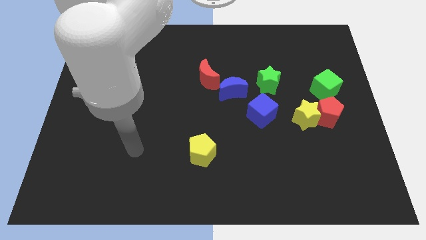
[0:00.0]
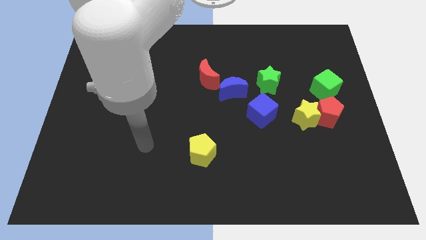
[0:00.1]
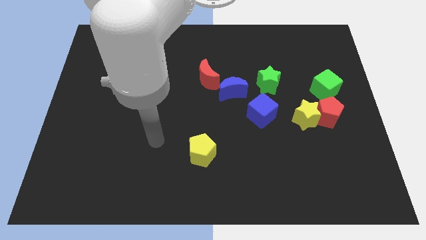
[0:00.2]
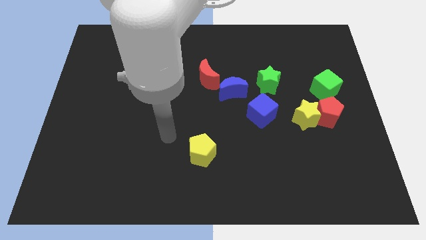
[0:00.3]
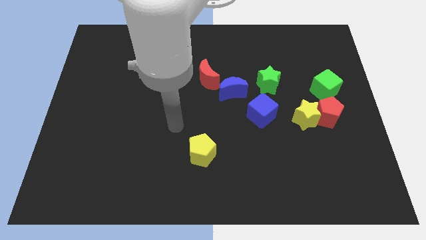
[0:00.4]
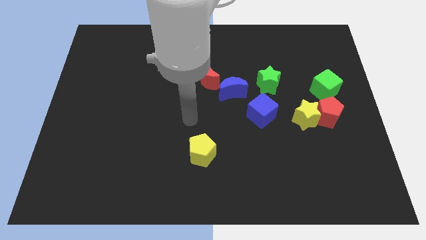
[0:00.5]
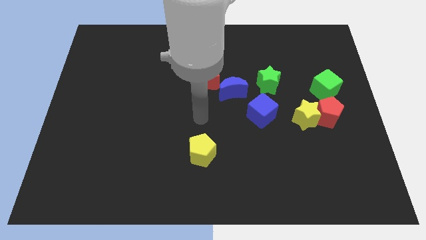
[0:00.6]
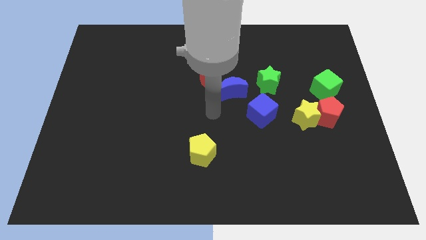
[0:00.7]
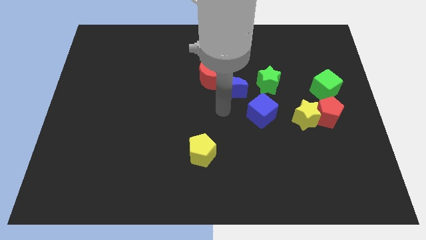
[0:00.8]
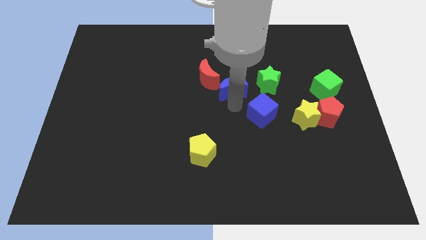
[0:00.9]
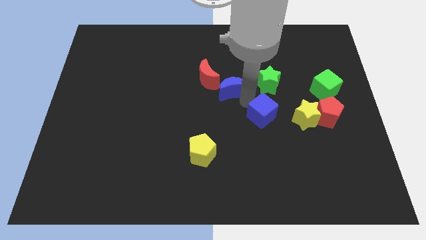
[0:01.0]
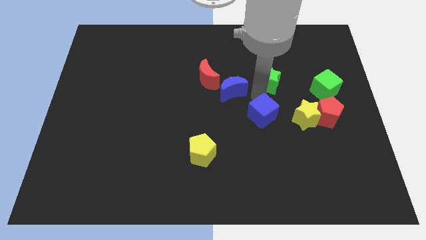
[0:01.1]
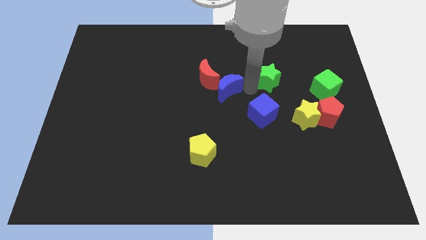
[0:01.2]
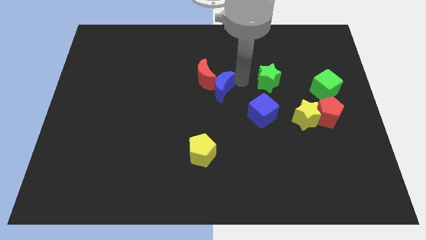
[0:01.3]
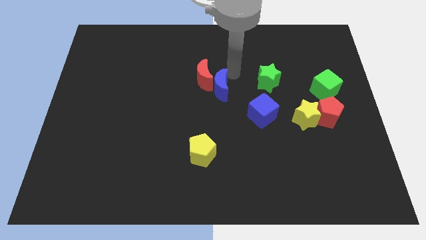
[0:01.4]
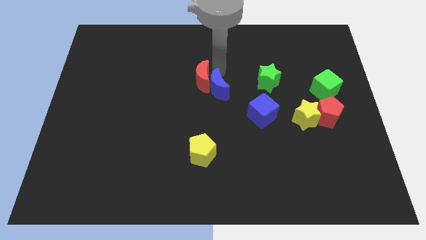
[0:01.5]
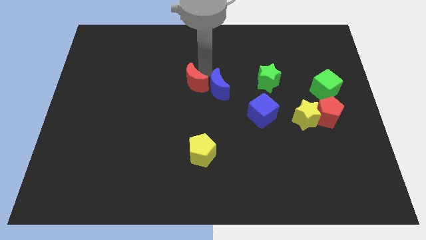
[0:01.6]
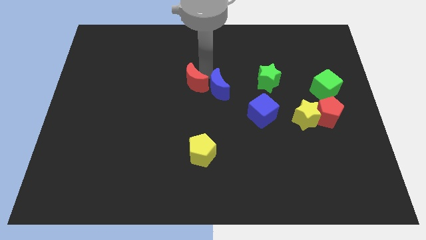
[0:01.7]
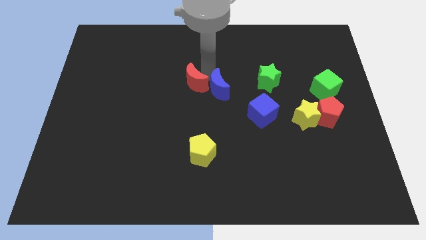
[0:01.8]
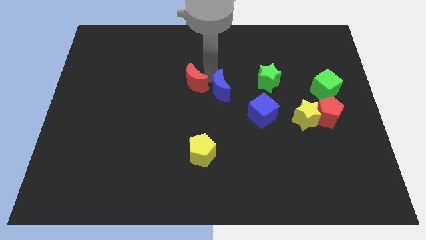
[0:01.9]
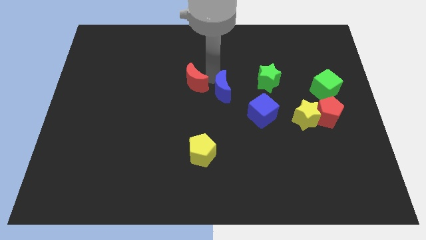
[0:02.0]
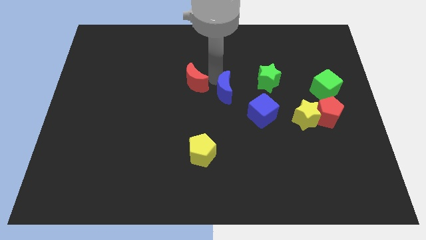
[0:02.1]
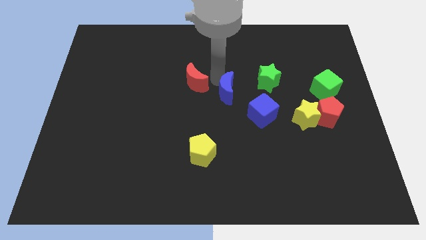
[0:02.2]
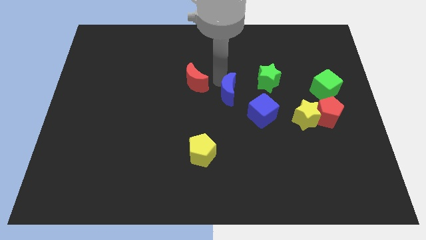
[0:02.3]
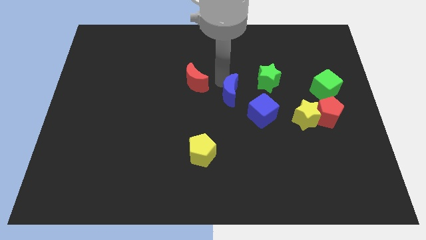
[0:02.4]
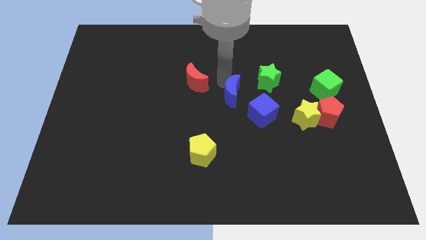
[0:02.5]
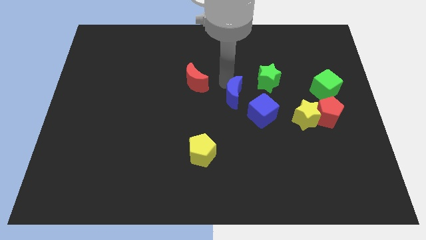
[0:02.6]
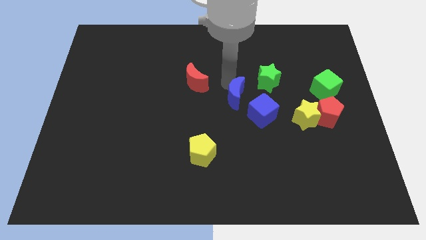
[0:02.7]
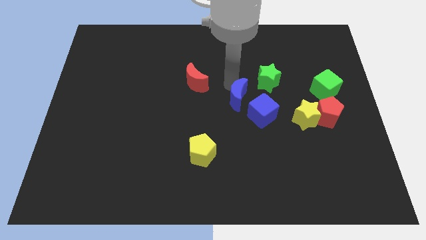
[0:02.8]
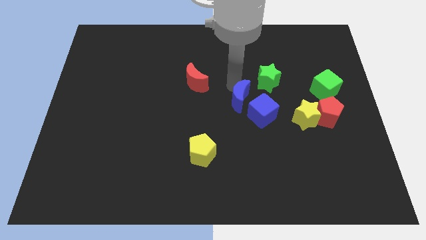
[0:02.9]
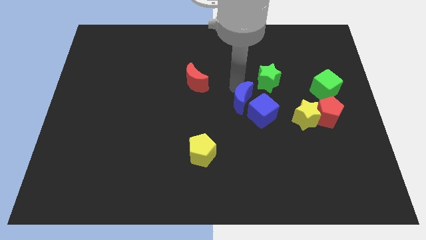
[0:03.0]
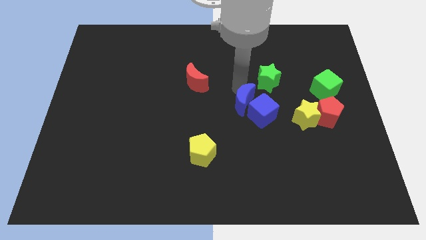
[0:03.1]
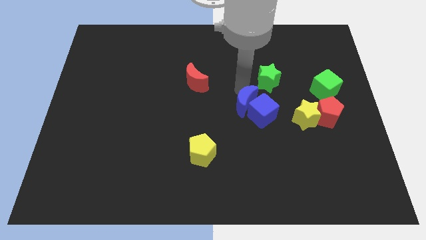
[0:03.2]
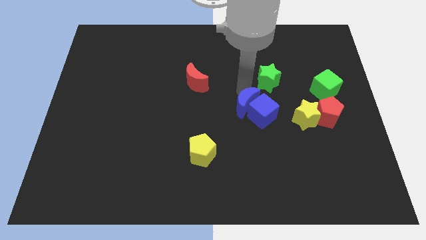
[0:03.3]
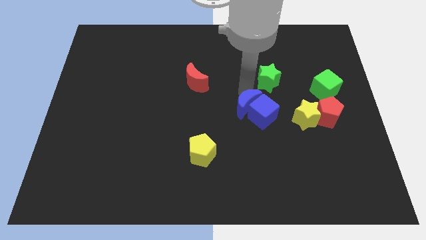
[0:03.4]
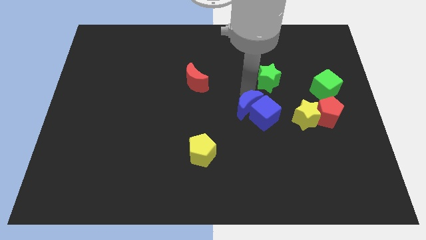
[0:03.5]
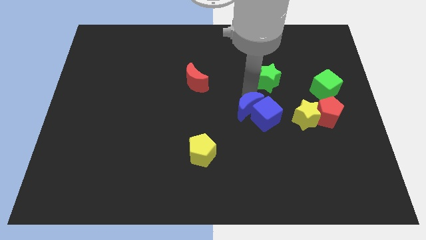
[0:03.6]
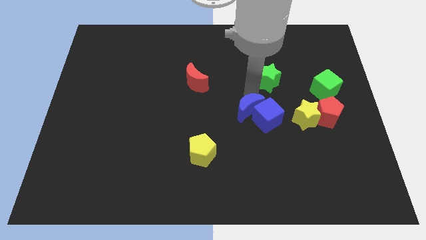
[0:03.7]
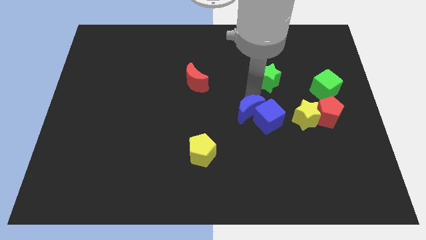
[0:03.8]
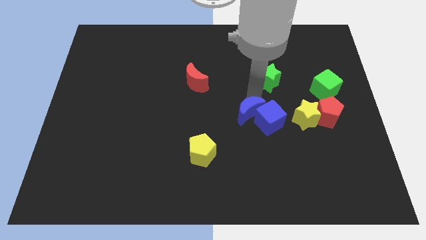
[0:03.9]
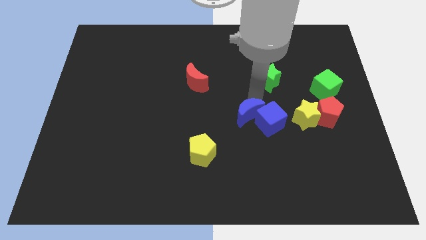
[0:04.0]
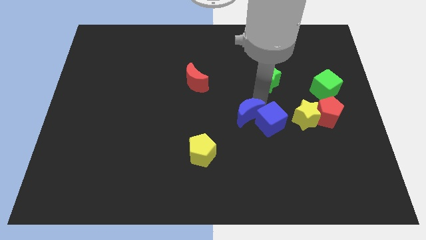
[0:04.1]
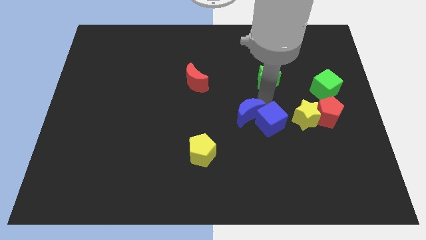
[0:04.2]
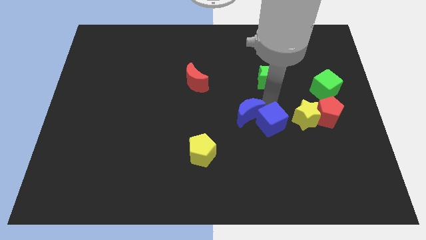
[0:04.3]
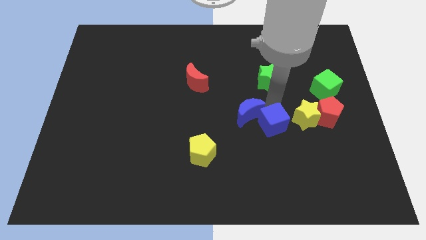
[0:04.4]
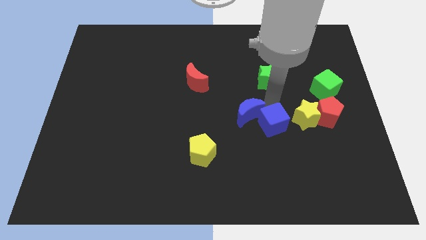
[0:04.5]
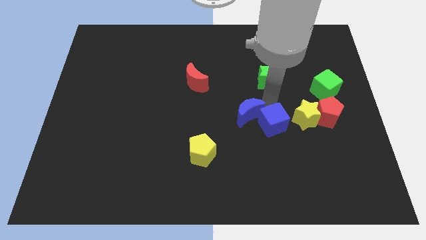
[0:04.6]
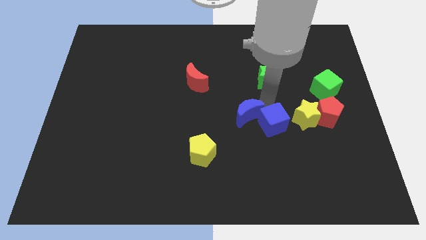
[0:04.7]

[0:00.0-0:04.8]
slightly move the blue moon down

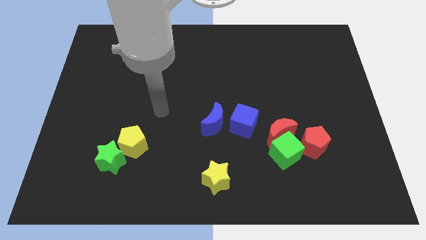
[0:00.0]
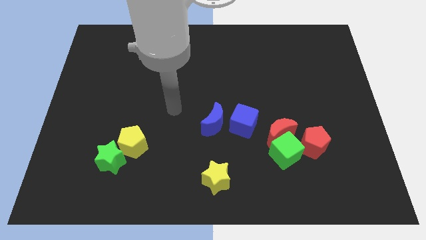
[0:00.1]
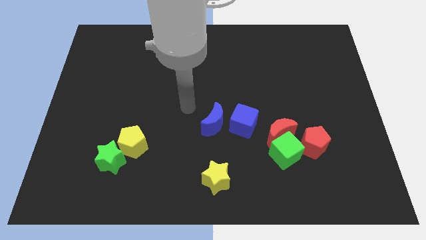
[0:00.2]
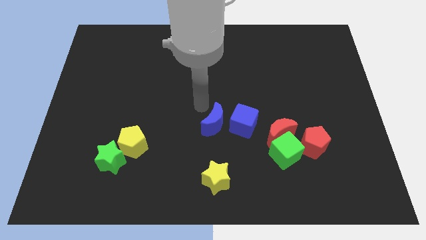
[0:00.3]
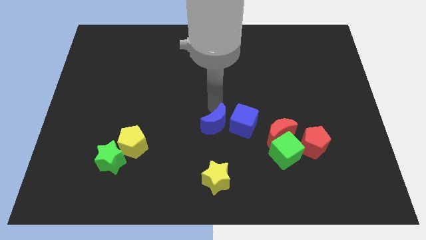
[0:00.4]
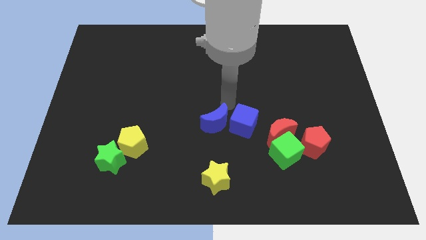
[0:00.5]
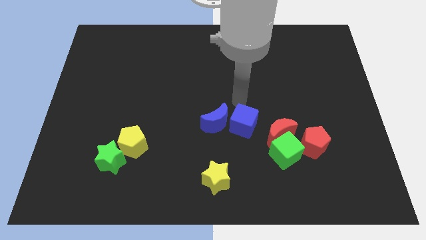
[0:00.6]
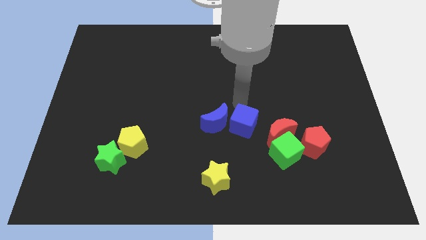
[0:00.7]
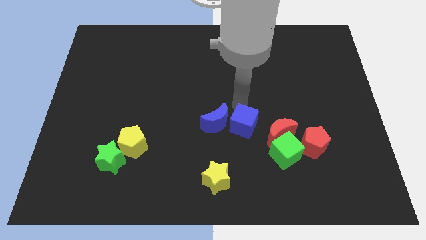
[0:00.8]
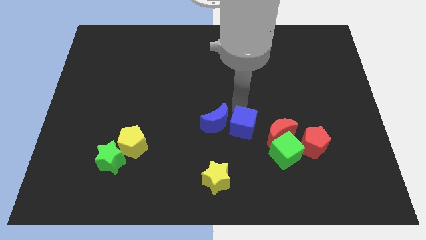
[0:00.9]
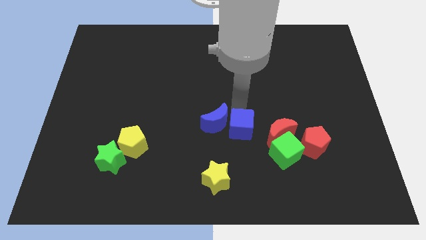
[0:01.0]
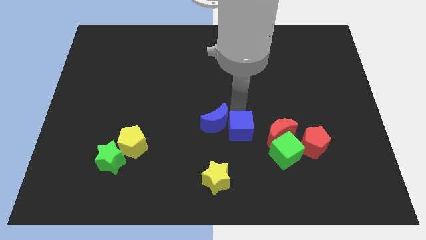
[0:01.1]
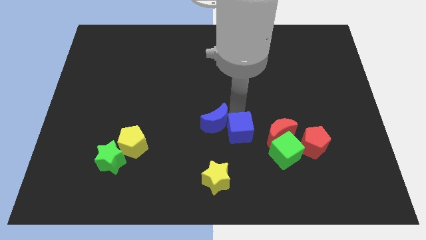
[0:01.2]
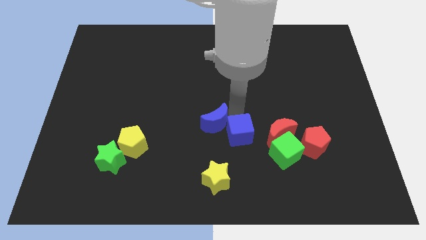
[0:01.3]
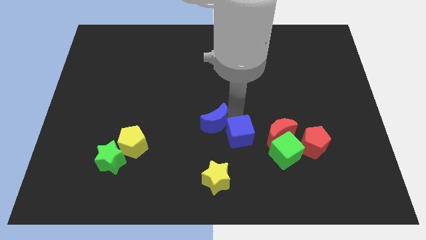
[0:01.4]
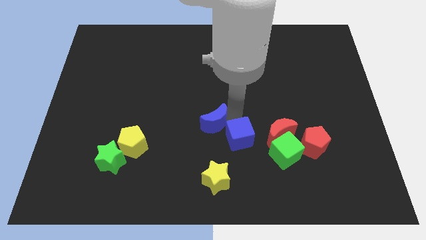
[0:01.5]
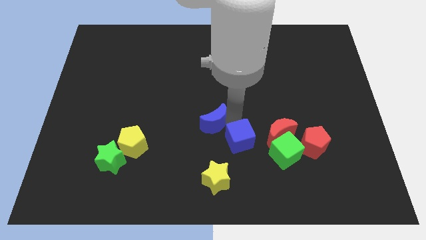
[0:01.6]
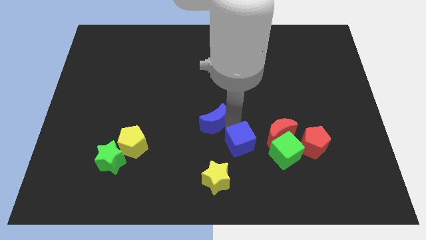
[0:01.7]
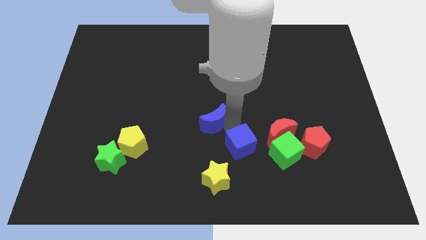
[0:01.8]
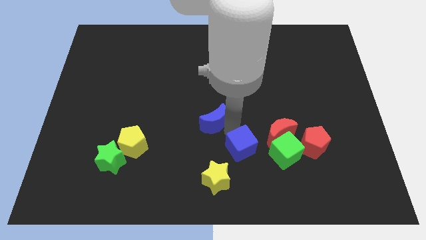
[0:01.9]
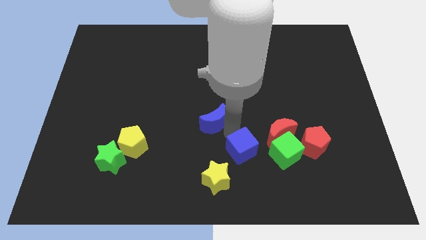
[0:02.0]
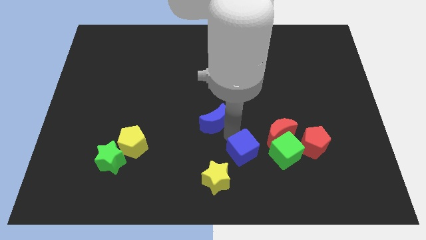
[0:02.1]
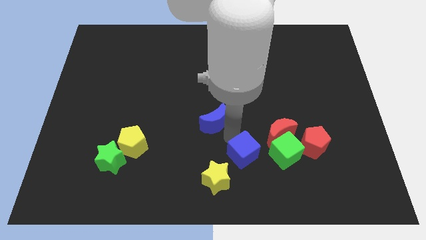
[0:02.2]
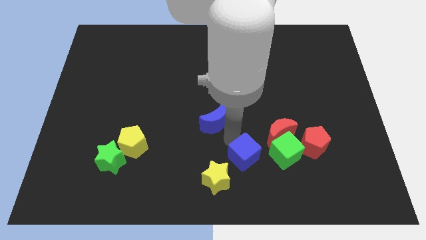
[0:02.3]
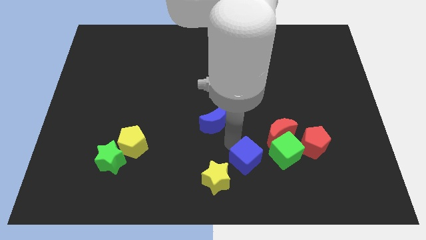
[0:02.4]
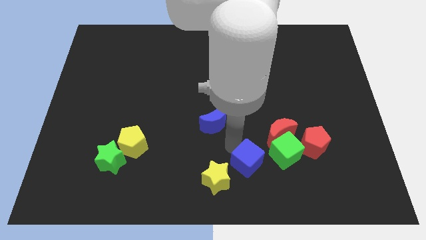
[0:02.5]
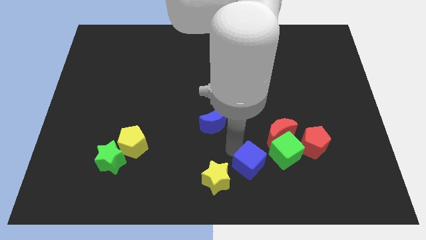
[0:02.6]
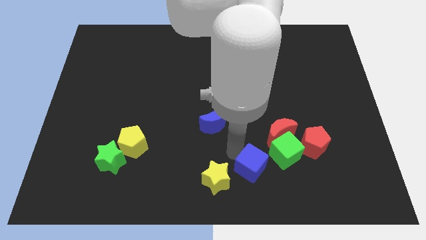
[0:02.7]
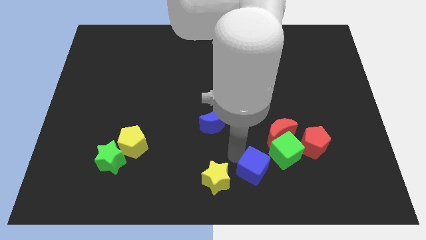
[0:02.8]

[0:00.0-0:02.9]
slide the blue cube down and to the right a little bit

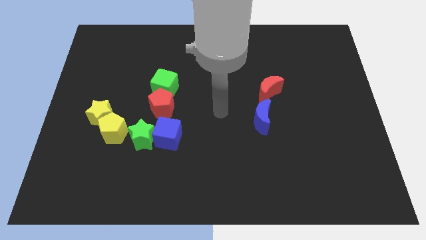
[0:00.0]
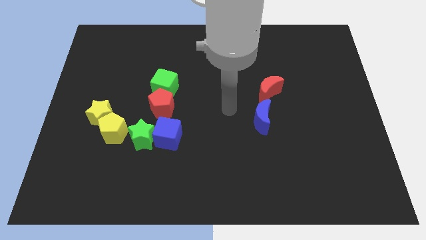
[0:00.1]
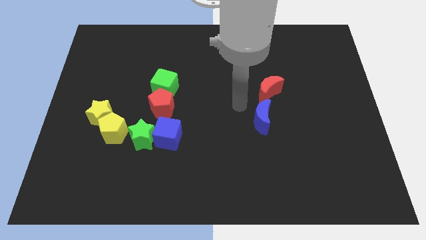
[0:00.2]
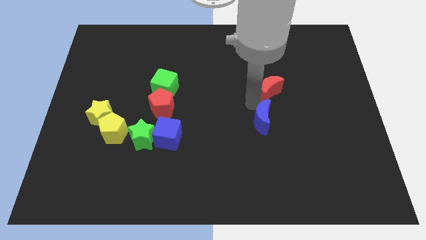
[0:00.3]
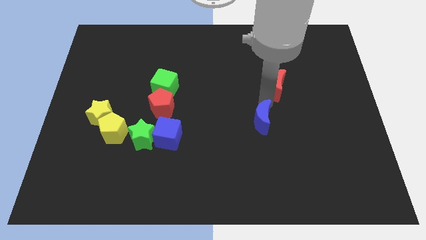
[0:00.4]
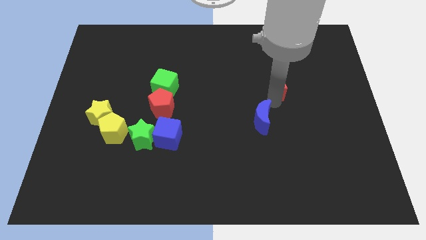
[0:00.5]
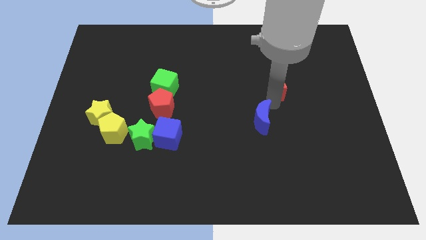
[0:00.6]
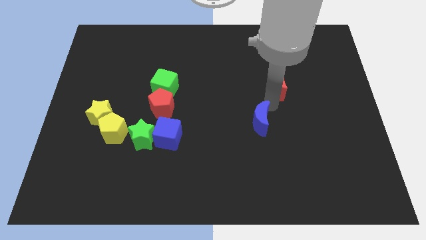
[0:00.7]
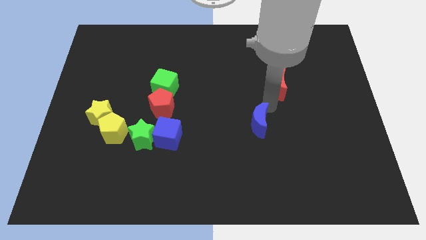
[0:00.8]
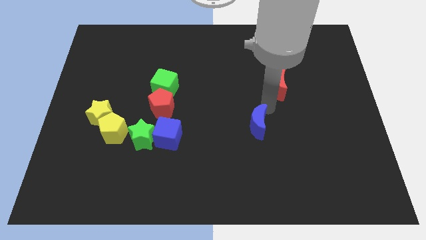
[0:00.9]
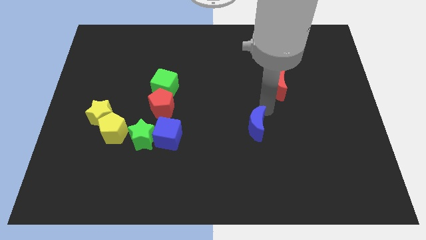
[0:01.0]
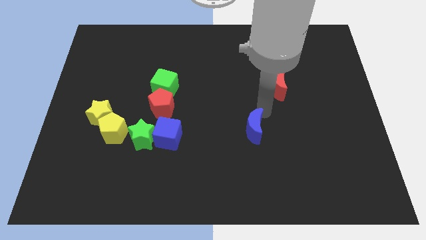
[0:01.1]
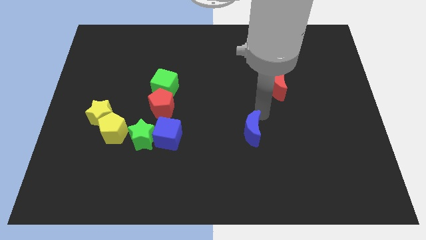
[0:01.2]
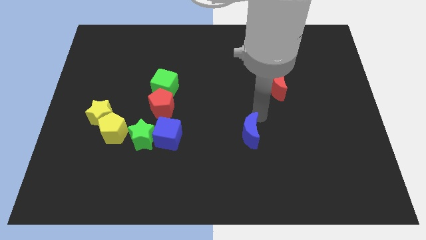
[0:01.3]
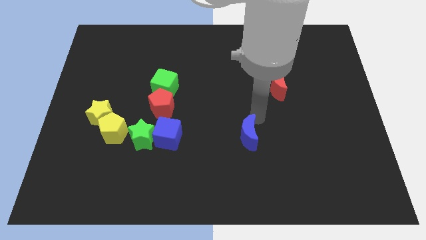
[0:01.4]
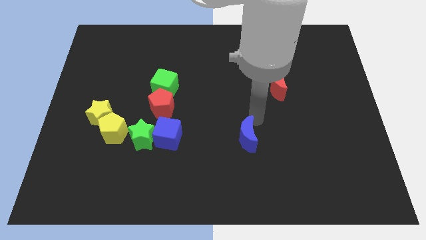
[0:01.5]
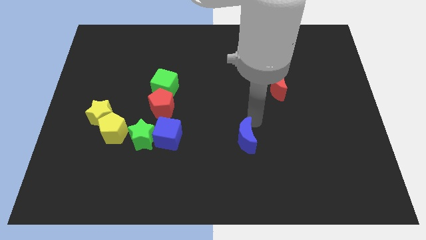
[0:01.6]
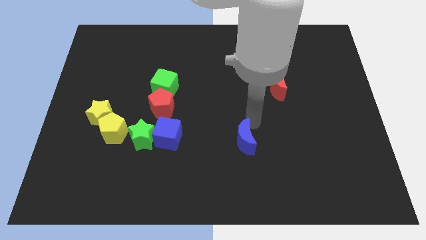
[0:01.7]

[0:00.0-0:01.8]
move the blue moon somewhat downwards and left diagonally
